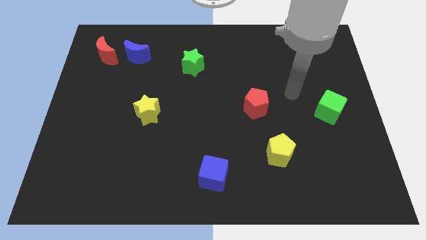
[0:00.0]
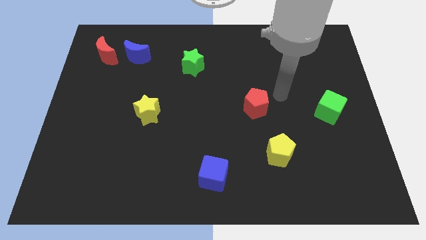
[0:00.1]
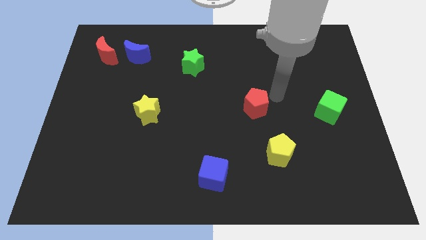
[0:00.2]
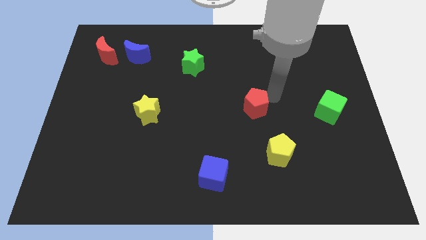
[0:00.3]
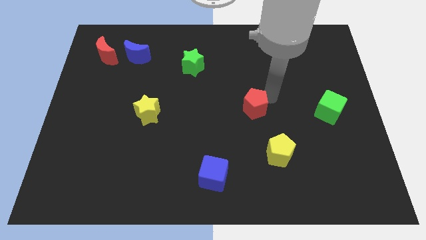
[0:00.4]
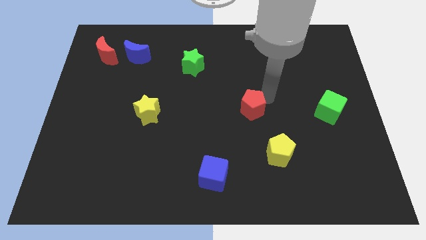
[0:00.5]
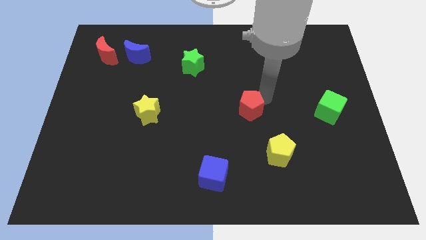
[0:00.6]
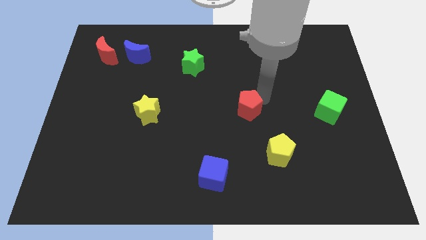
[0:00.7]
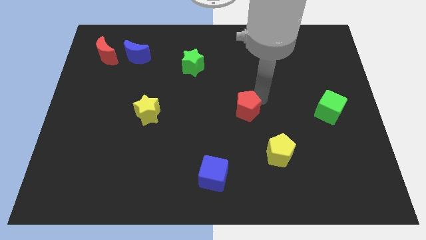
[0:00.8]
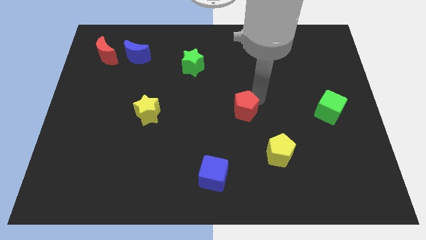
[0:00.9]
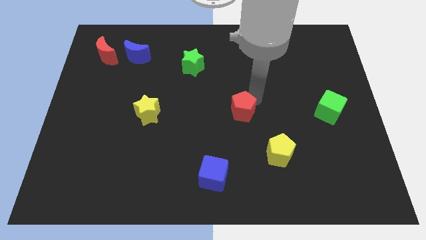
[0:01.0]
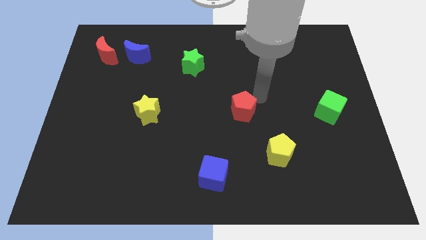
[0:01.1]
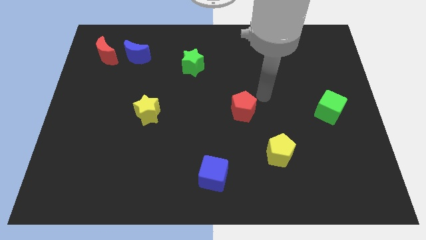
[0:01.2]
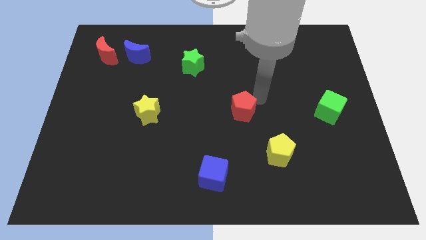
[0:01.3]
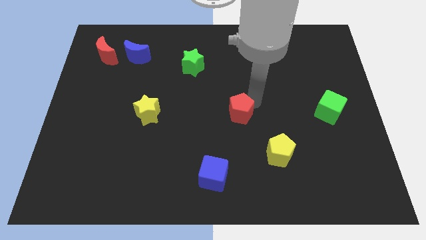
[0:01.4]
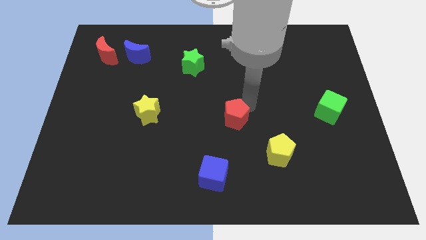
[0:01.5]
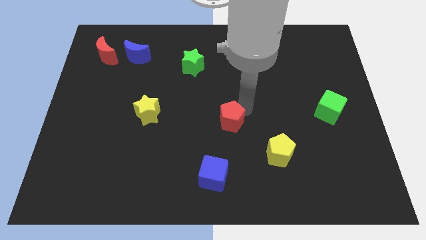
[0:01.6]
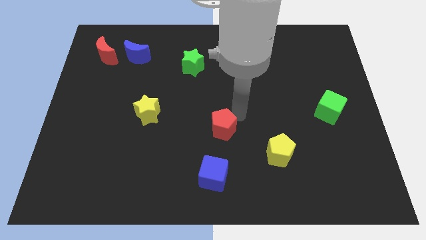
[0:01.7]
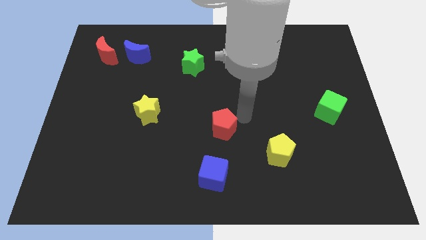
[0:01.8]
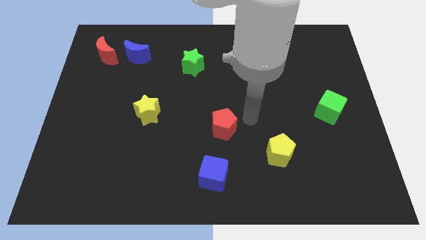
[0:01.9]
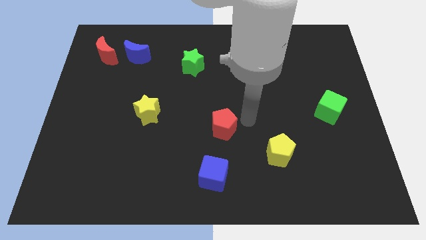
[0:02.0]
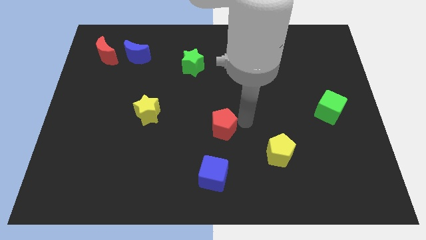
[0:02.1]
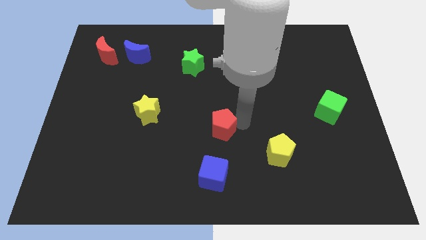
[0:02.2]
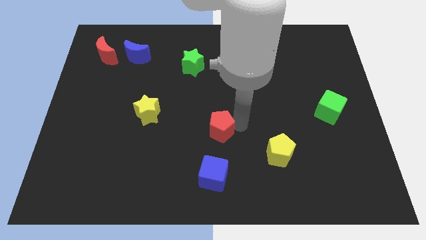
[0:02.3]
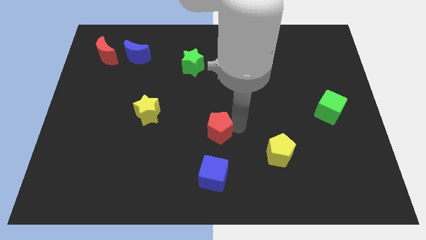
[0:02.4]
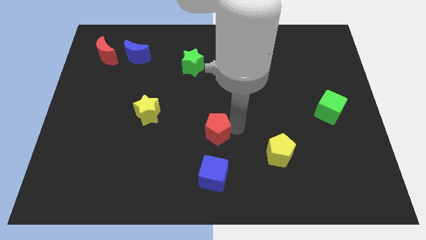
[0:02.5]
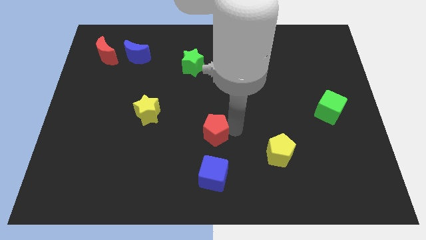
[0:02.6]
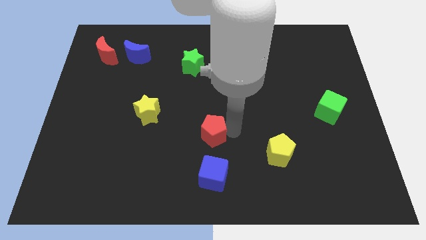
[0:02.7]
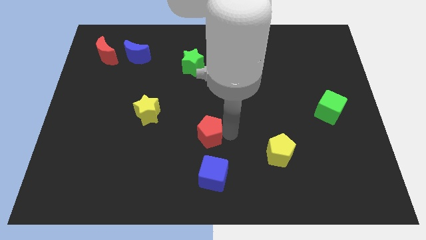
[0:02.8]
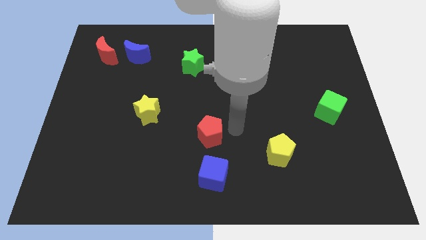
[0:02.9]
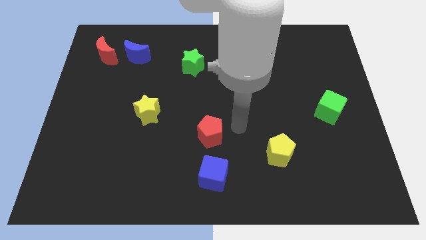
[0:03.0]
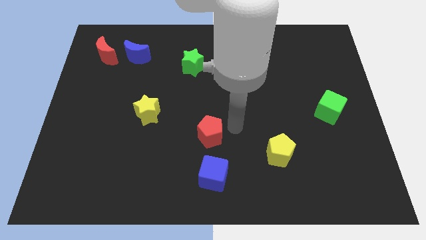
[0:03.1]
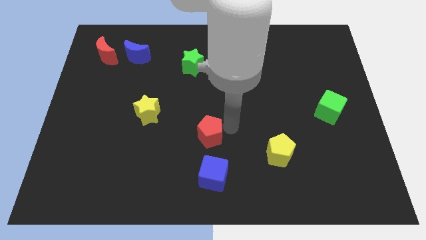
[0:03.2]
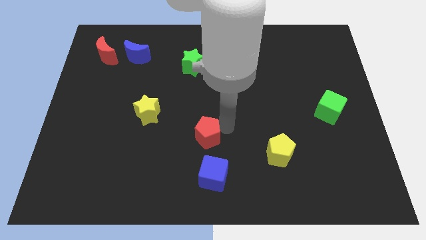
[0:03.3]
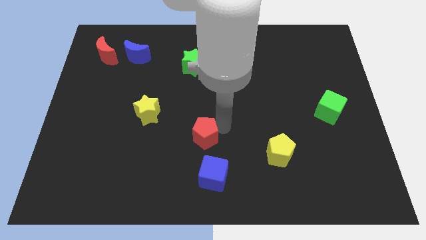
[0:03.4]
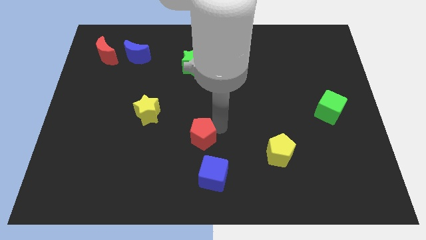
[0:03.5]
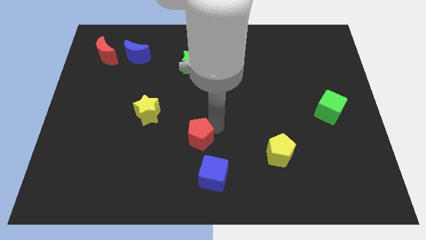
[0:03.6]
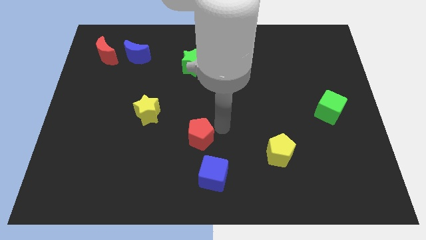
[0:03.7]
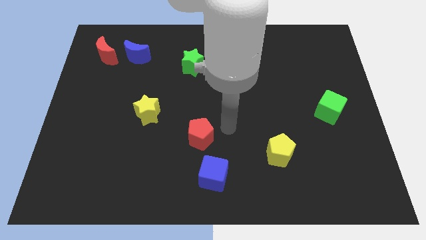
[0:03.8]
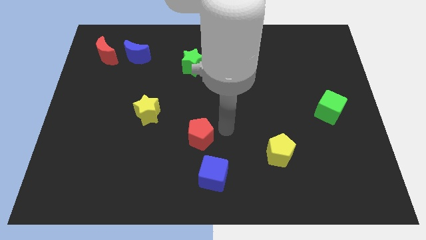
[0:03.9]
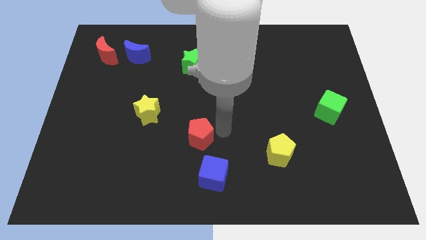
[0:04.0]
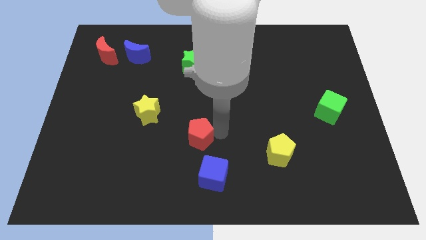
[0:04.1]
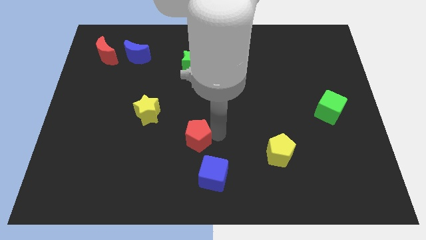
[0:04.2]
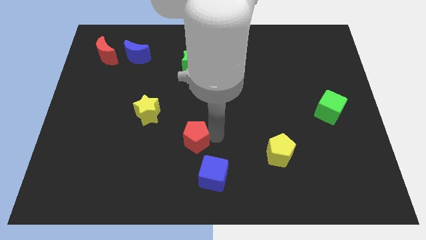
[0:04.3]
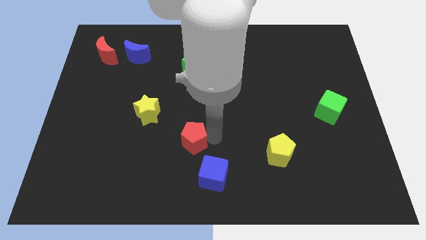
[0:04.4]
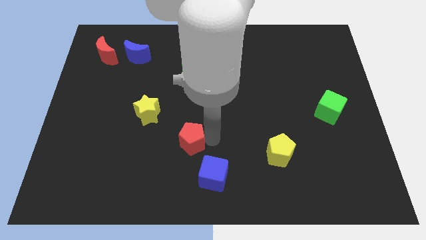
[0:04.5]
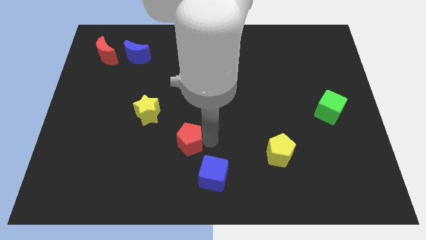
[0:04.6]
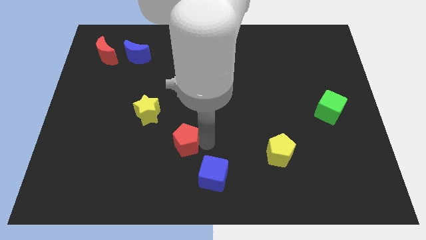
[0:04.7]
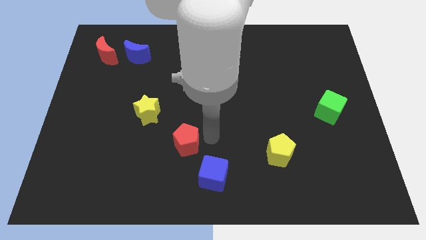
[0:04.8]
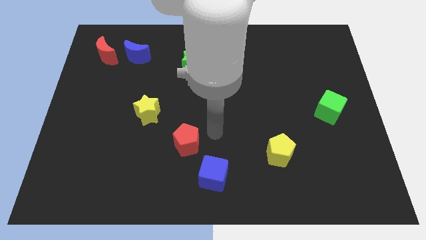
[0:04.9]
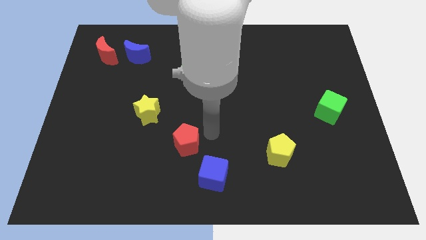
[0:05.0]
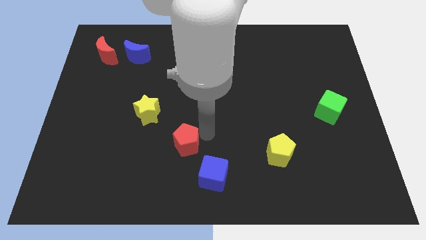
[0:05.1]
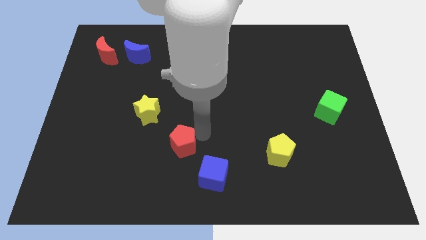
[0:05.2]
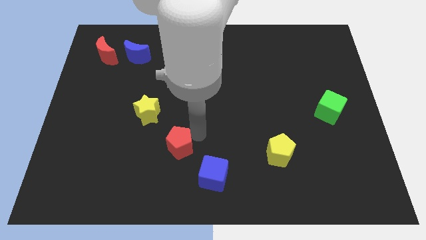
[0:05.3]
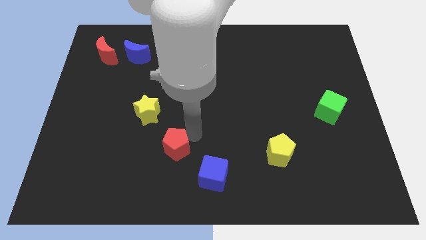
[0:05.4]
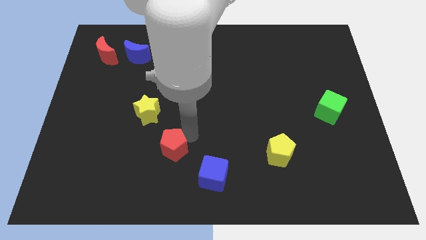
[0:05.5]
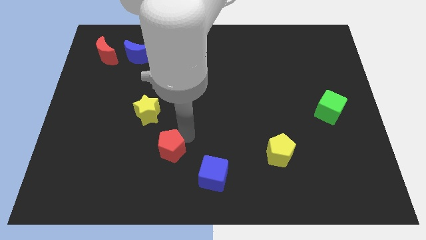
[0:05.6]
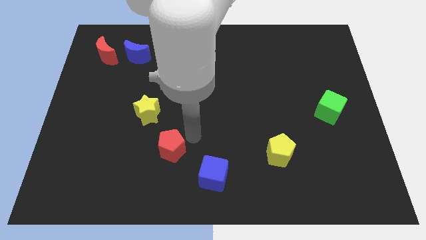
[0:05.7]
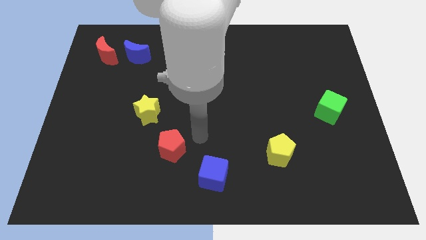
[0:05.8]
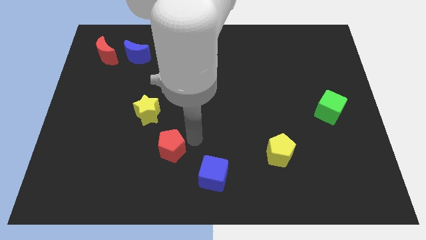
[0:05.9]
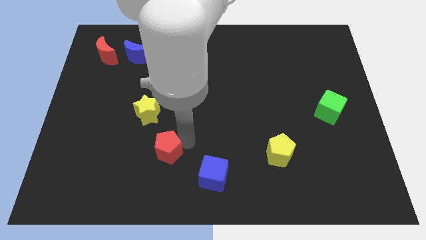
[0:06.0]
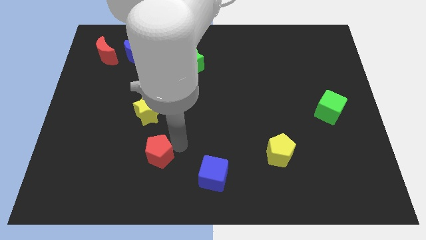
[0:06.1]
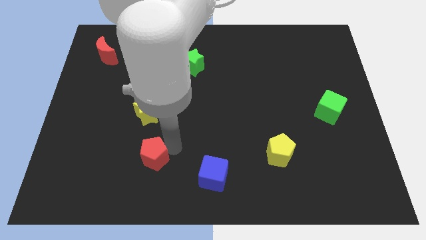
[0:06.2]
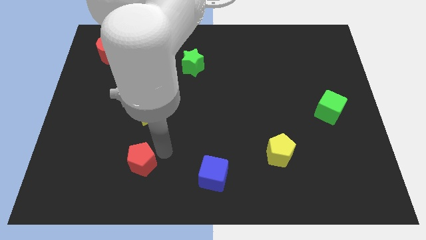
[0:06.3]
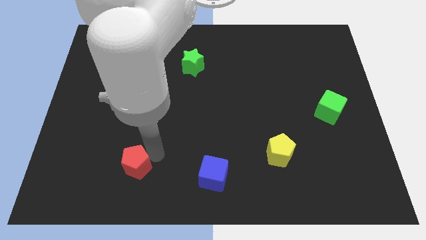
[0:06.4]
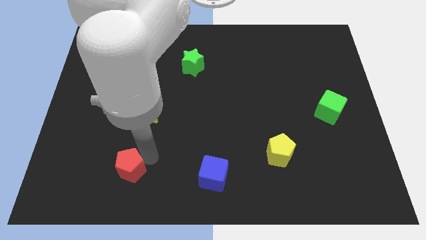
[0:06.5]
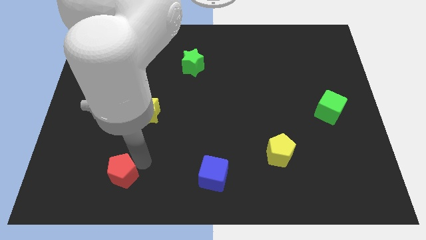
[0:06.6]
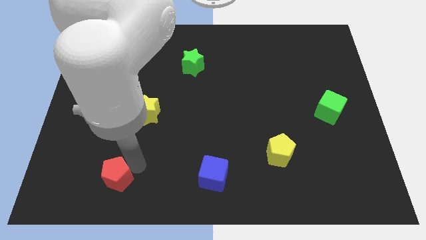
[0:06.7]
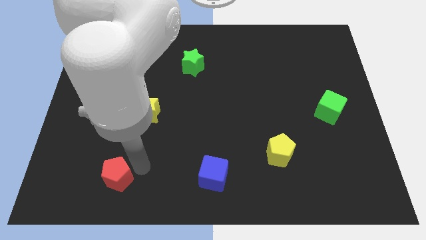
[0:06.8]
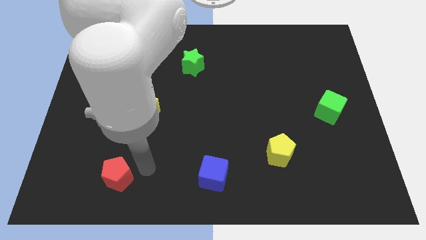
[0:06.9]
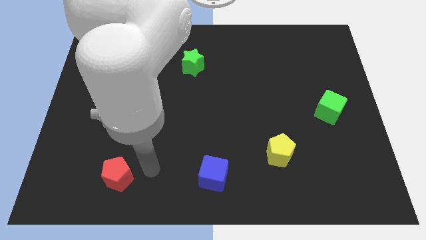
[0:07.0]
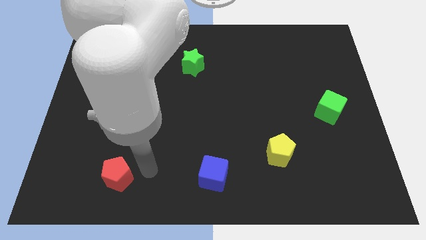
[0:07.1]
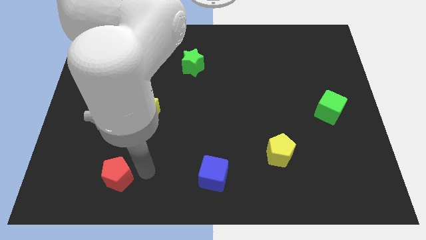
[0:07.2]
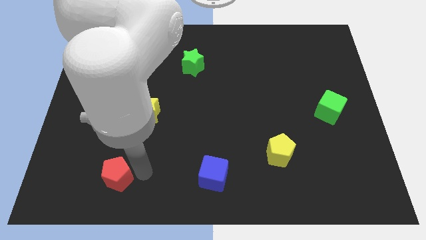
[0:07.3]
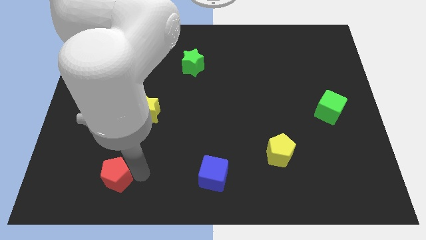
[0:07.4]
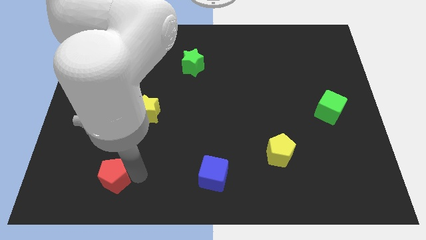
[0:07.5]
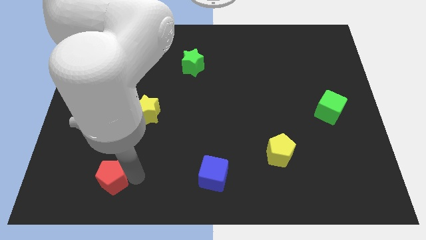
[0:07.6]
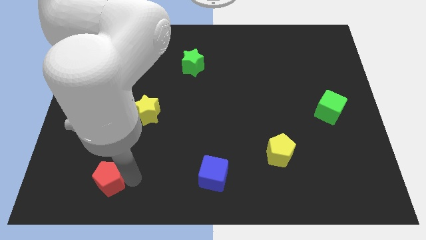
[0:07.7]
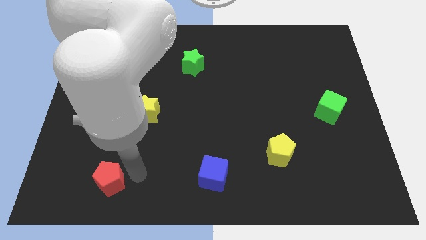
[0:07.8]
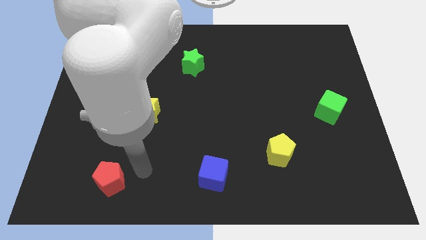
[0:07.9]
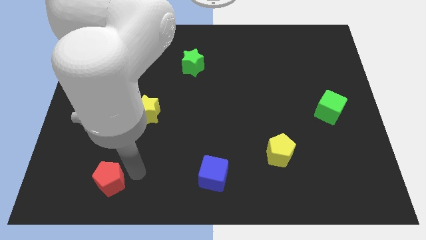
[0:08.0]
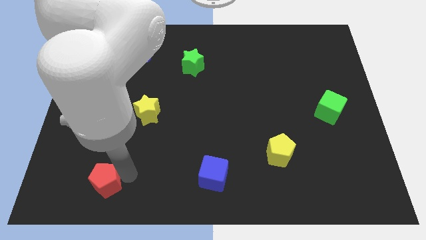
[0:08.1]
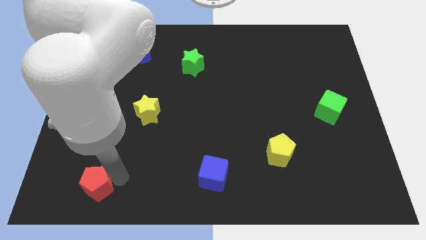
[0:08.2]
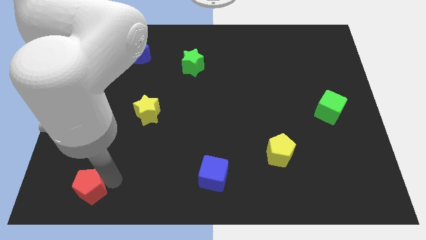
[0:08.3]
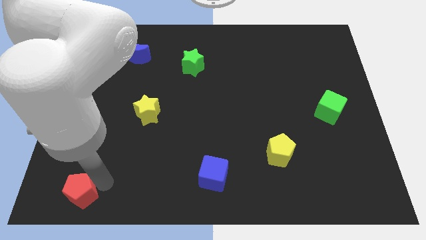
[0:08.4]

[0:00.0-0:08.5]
slide the red pentagon to the bottom left
